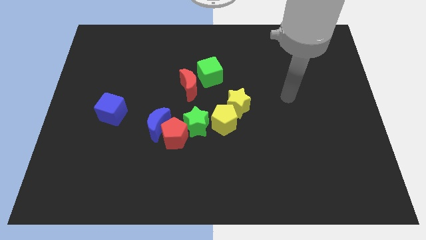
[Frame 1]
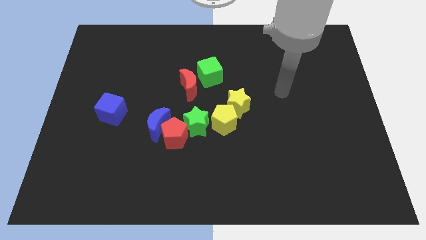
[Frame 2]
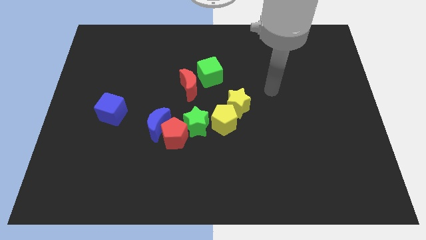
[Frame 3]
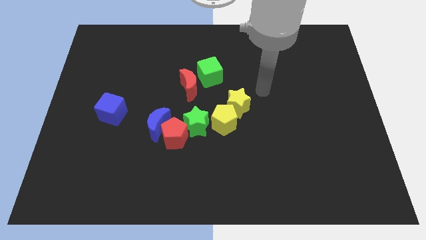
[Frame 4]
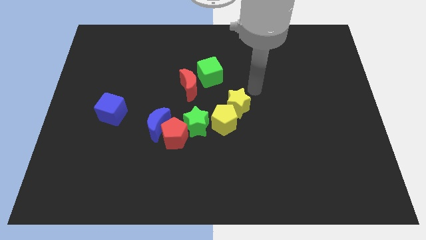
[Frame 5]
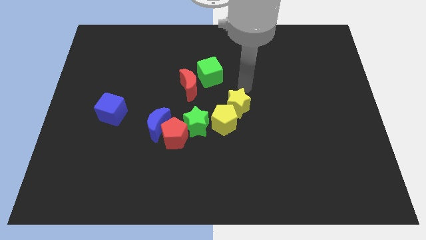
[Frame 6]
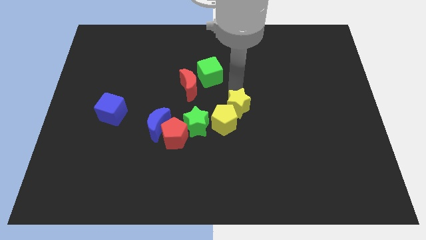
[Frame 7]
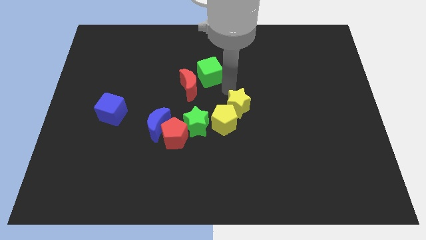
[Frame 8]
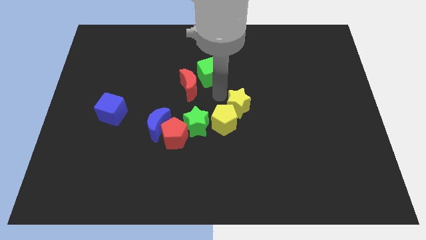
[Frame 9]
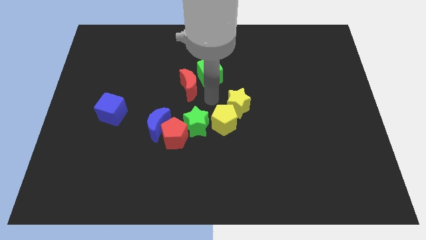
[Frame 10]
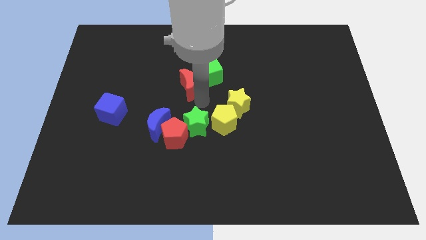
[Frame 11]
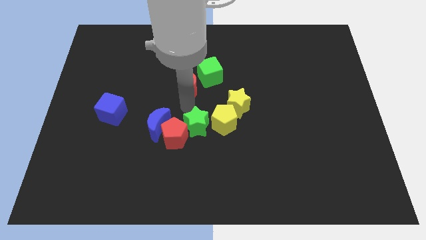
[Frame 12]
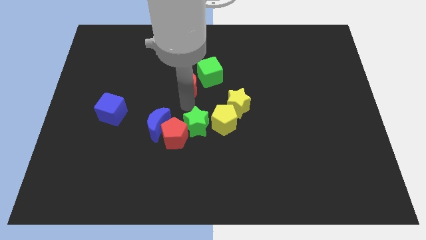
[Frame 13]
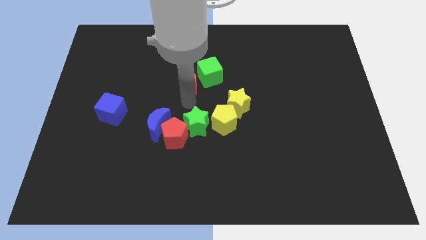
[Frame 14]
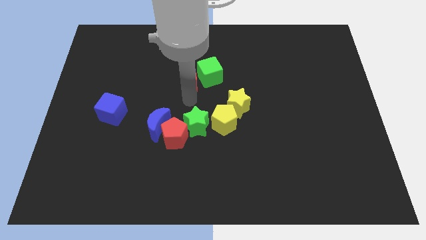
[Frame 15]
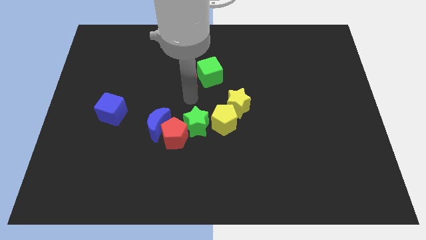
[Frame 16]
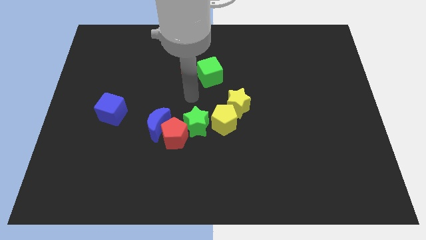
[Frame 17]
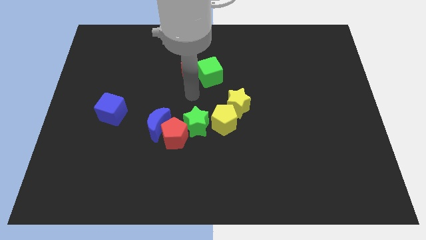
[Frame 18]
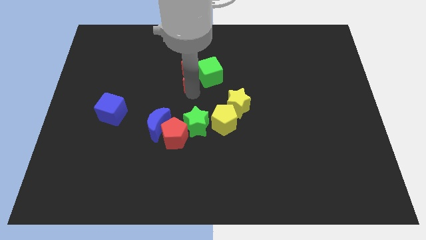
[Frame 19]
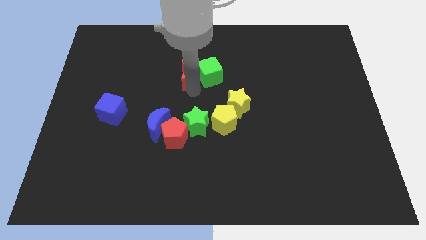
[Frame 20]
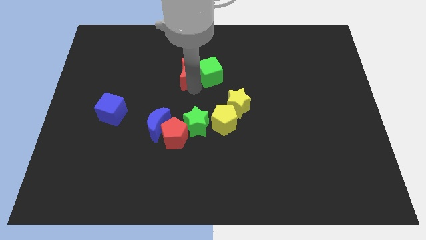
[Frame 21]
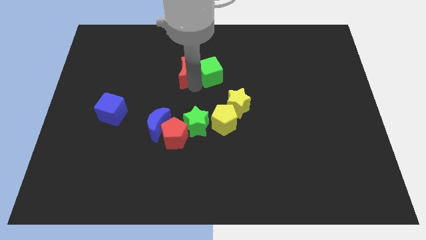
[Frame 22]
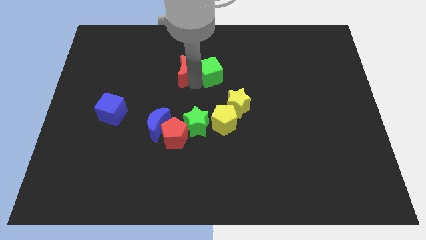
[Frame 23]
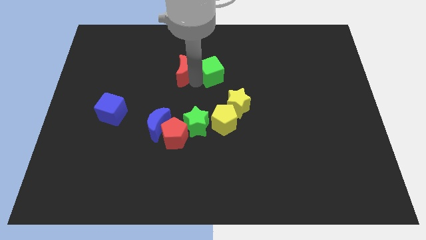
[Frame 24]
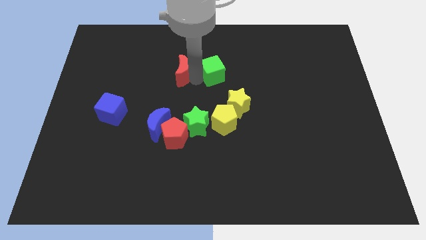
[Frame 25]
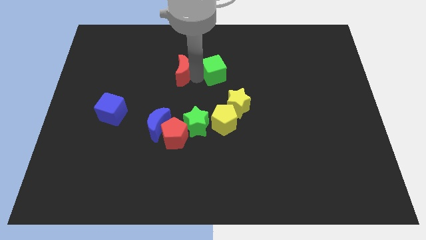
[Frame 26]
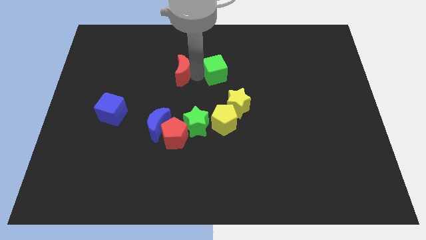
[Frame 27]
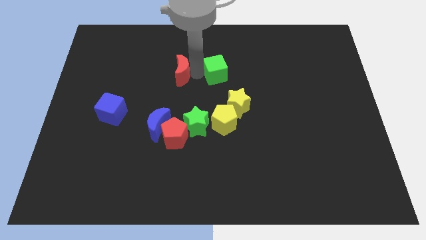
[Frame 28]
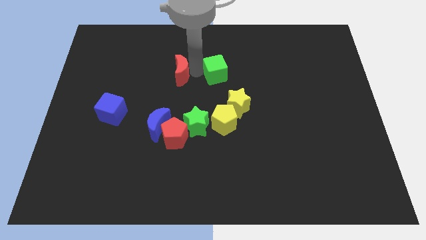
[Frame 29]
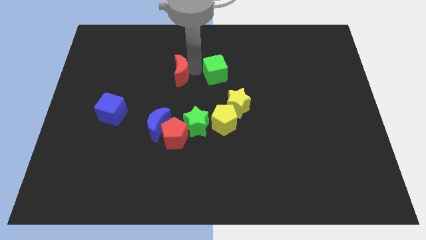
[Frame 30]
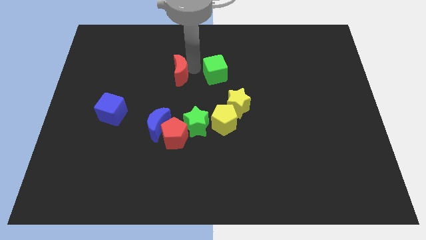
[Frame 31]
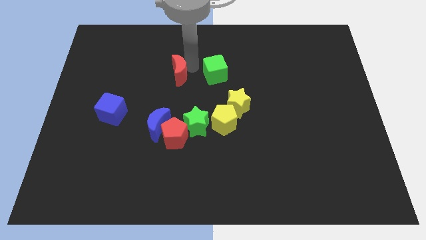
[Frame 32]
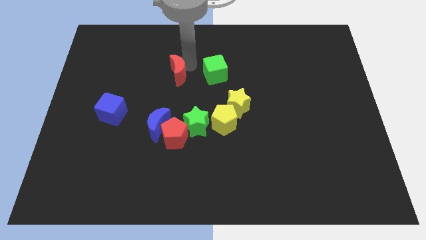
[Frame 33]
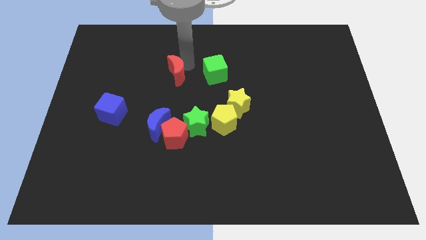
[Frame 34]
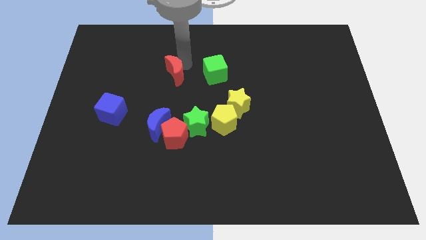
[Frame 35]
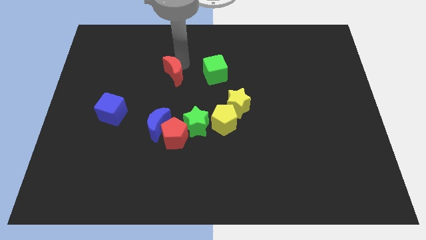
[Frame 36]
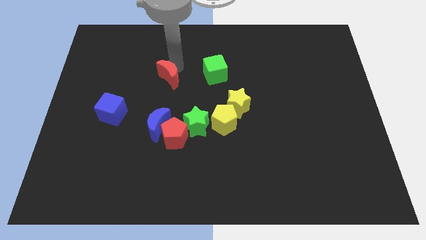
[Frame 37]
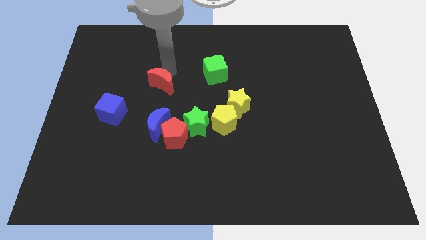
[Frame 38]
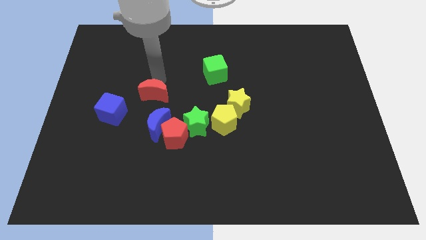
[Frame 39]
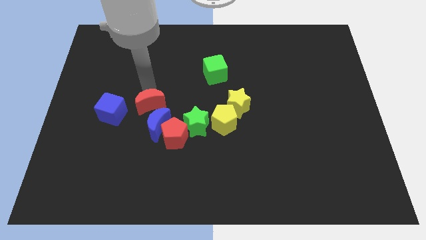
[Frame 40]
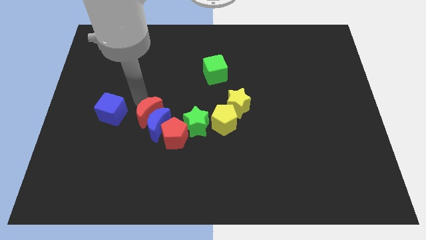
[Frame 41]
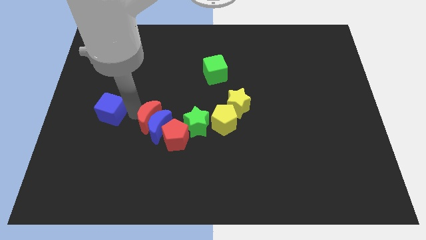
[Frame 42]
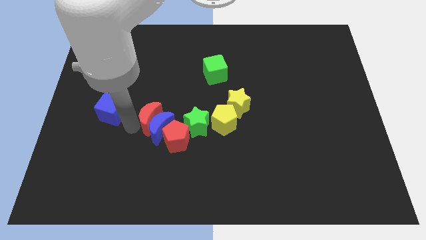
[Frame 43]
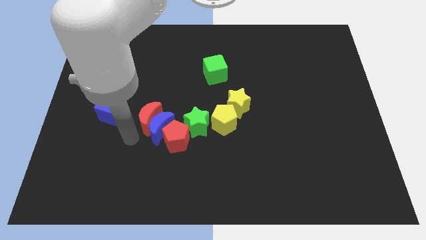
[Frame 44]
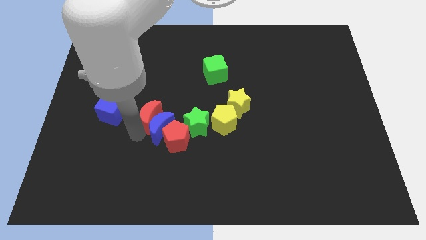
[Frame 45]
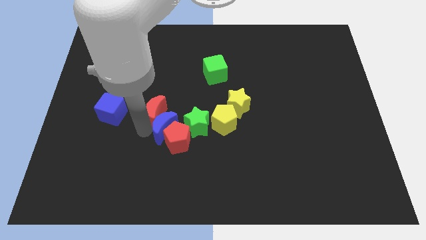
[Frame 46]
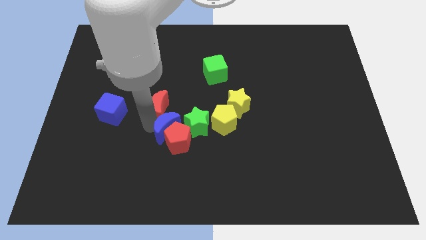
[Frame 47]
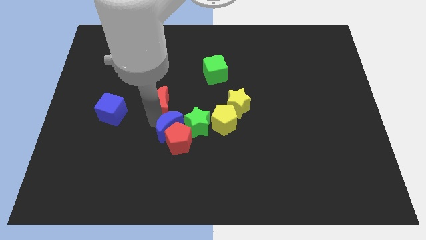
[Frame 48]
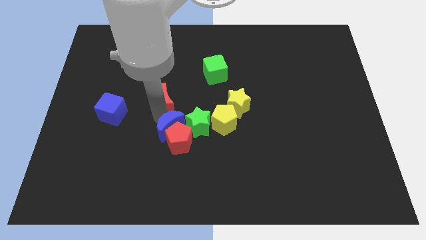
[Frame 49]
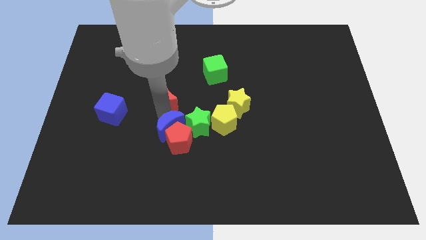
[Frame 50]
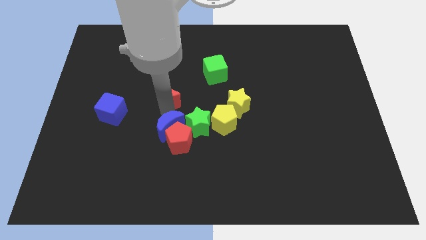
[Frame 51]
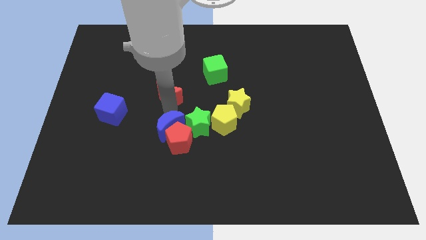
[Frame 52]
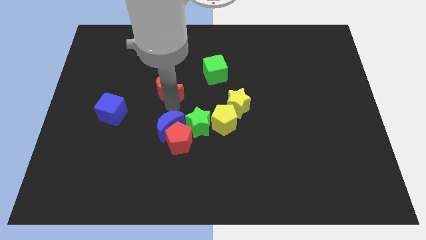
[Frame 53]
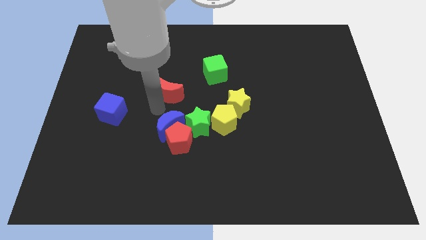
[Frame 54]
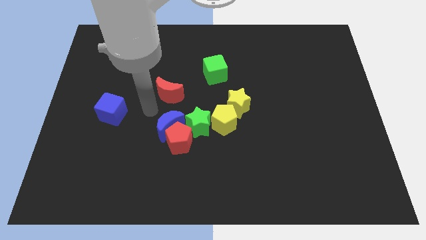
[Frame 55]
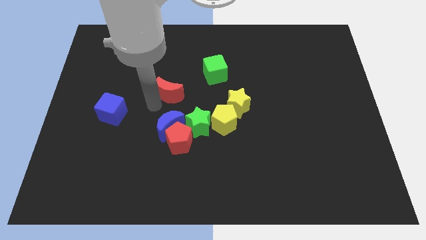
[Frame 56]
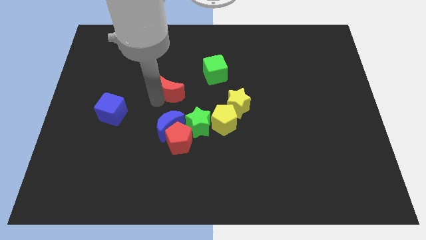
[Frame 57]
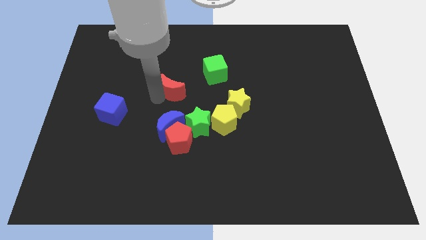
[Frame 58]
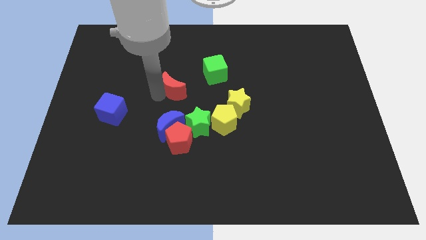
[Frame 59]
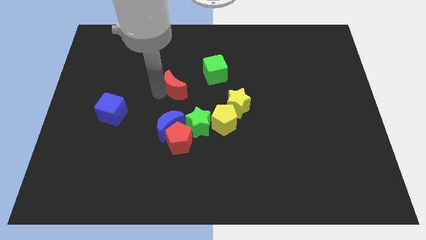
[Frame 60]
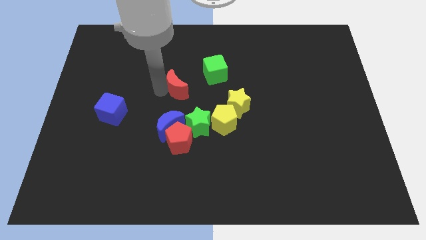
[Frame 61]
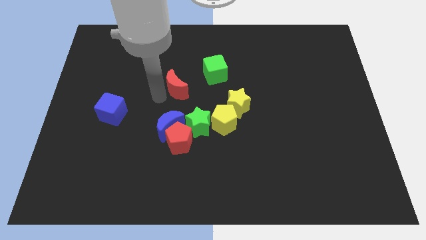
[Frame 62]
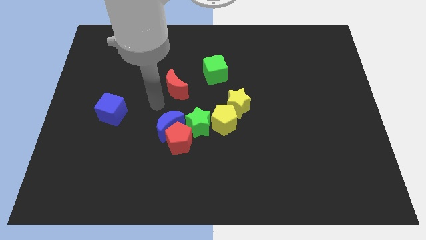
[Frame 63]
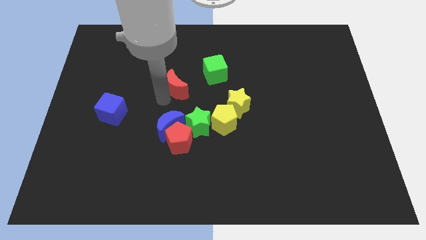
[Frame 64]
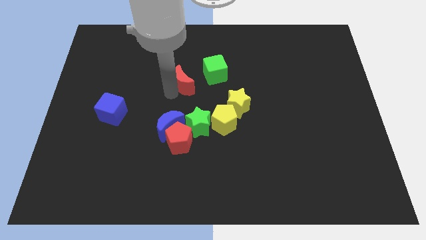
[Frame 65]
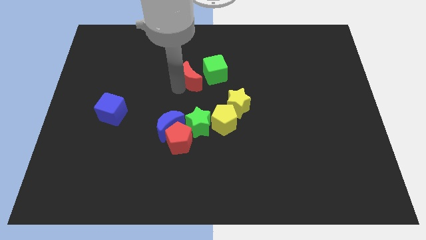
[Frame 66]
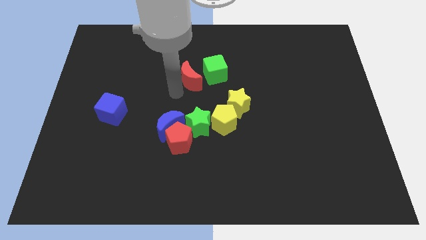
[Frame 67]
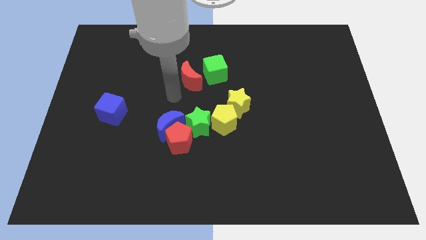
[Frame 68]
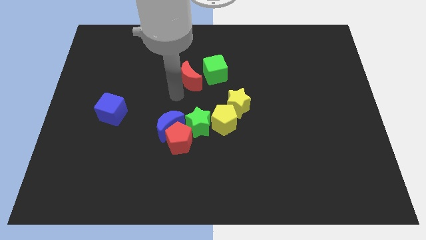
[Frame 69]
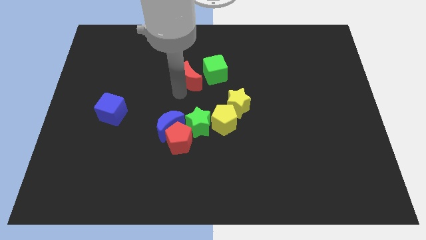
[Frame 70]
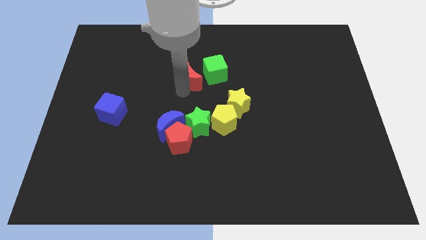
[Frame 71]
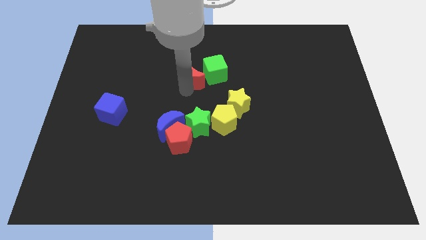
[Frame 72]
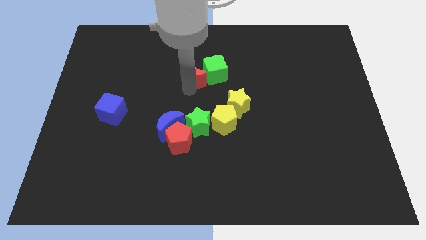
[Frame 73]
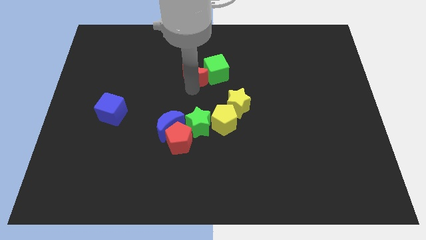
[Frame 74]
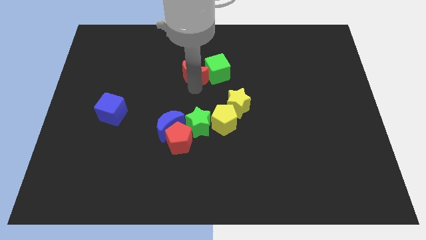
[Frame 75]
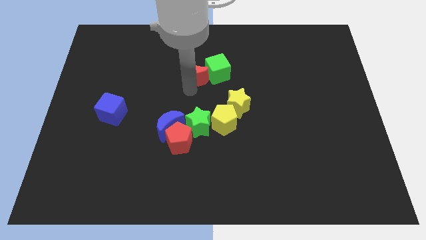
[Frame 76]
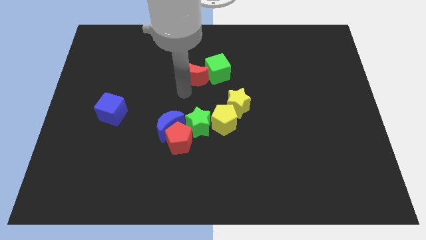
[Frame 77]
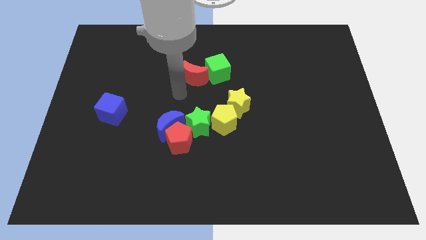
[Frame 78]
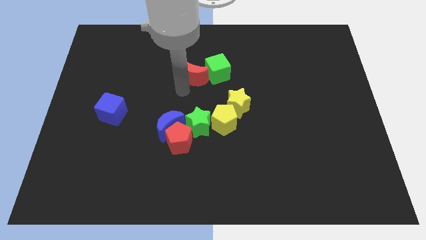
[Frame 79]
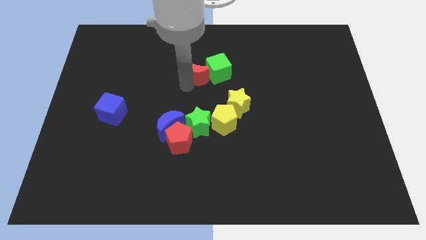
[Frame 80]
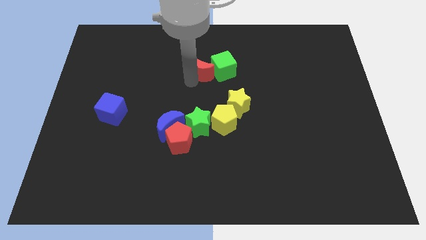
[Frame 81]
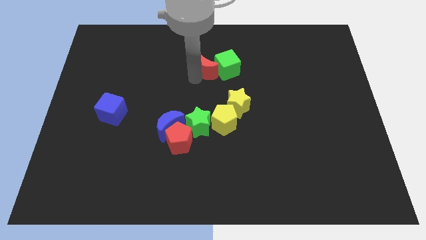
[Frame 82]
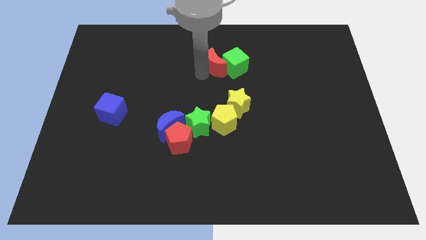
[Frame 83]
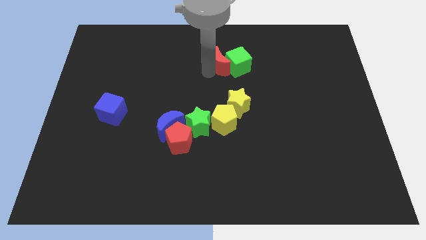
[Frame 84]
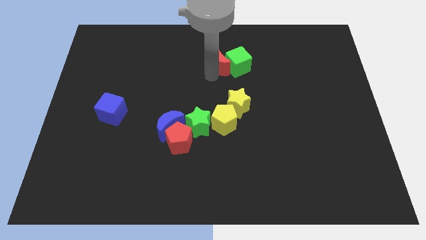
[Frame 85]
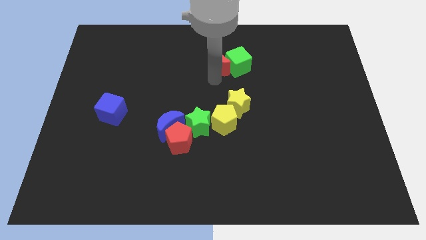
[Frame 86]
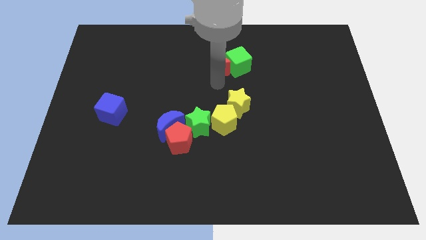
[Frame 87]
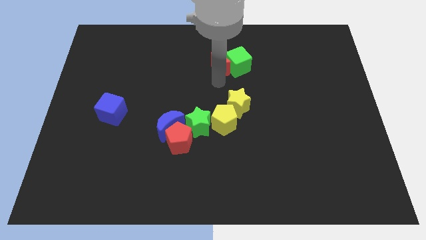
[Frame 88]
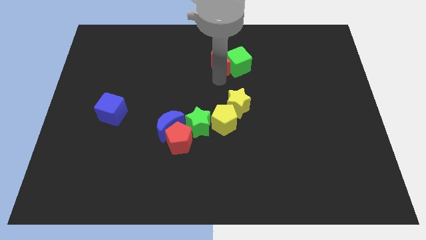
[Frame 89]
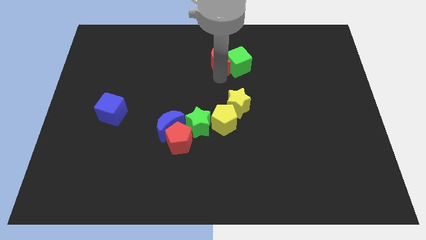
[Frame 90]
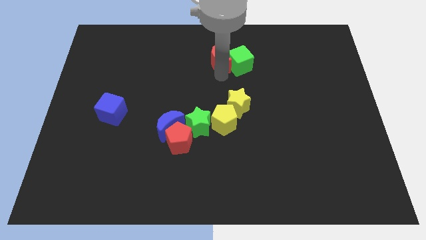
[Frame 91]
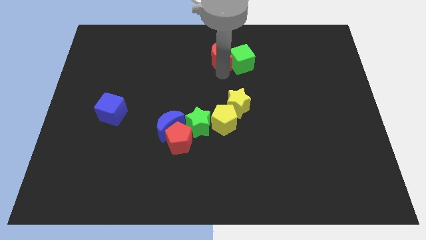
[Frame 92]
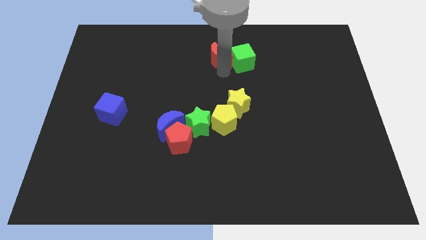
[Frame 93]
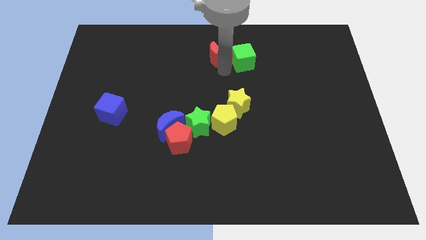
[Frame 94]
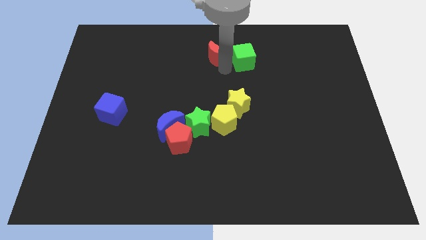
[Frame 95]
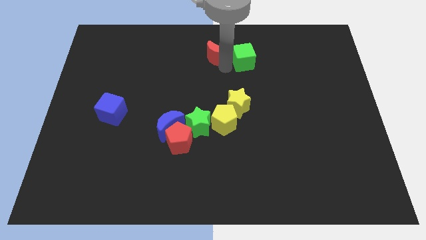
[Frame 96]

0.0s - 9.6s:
slide the red moon to the top
